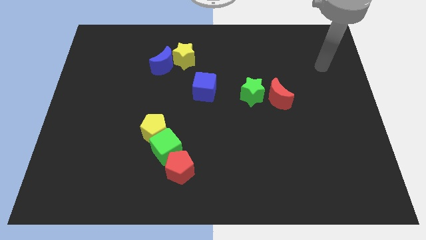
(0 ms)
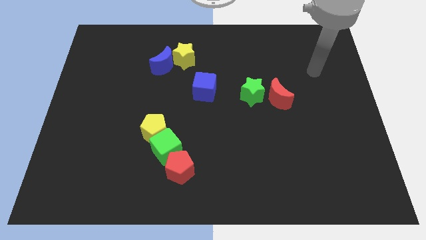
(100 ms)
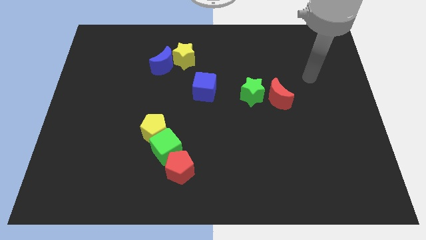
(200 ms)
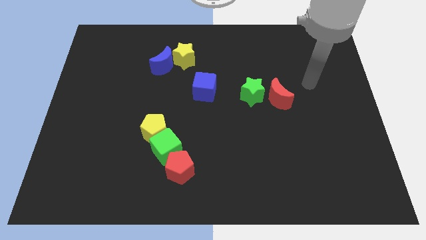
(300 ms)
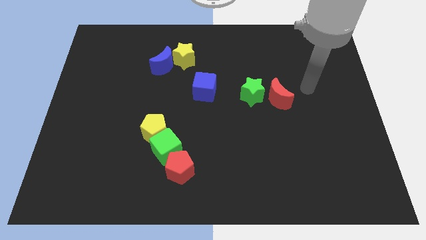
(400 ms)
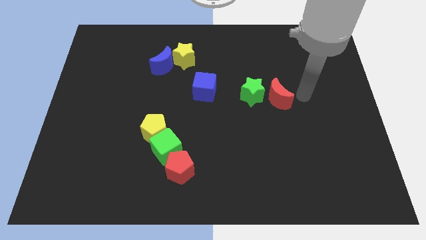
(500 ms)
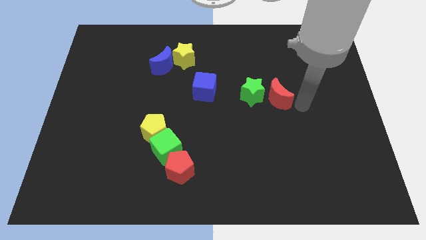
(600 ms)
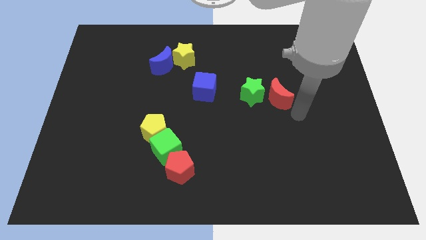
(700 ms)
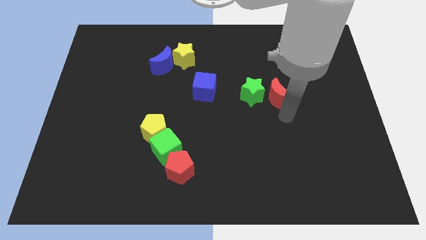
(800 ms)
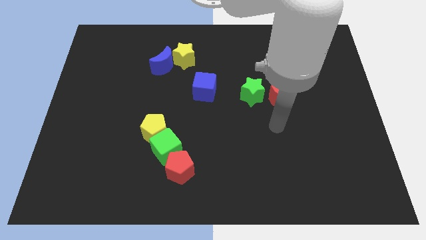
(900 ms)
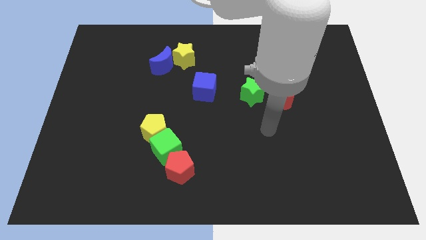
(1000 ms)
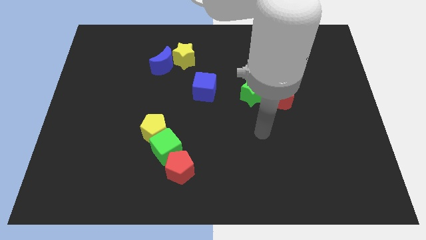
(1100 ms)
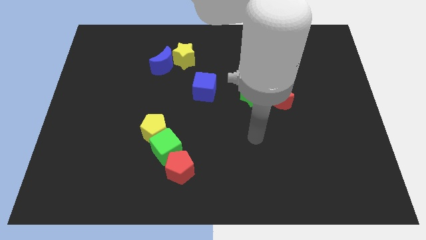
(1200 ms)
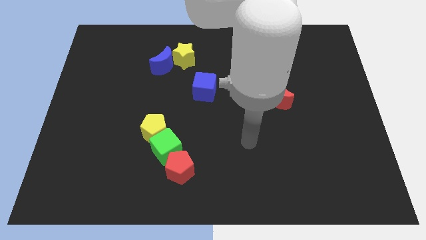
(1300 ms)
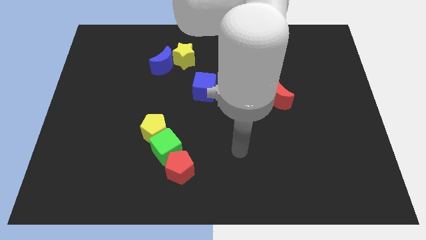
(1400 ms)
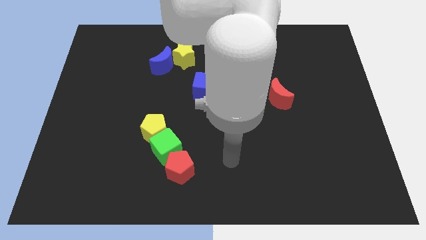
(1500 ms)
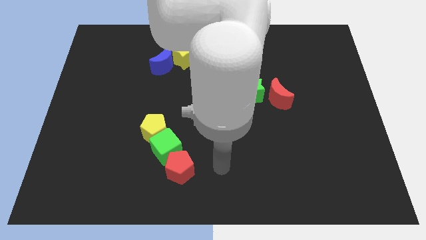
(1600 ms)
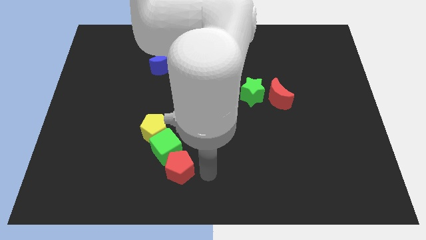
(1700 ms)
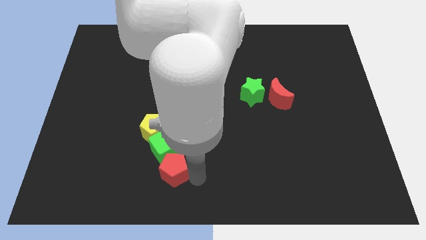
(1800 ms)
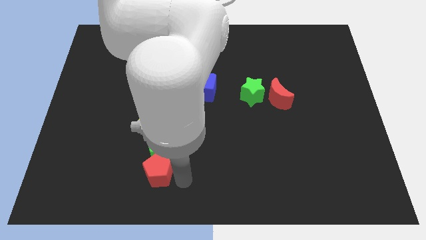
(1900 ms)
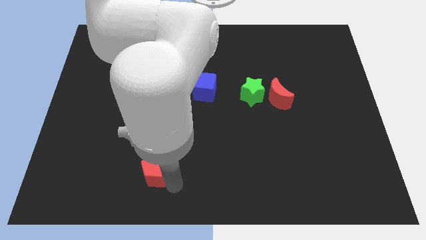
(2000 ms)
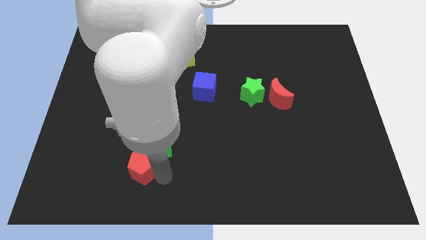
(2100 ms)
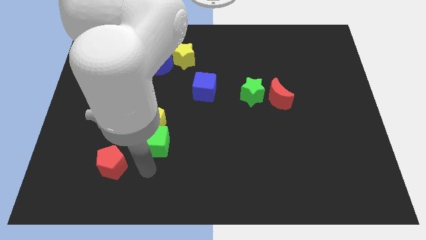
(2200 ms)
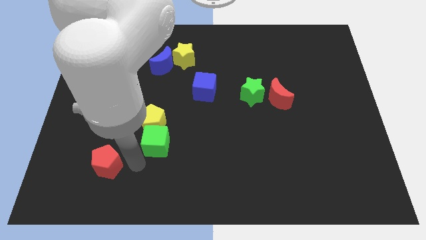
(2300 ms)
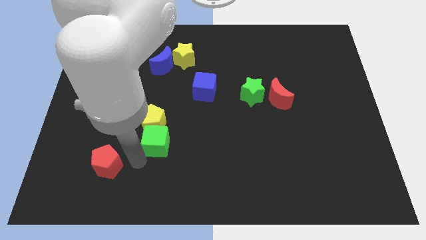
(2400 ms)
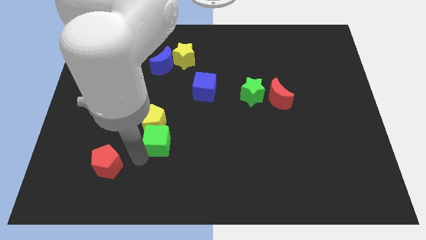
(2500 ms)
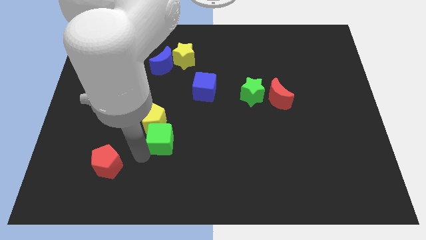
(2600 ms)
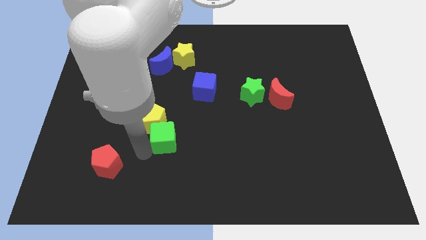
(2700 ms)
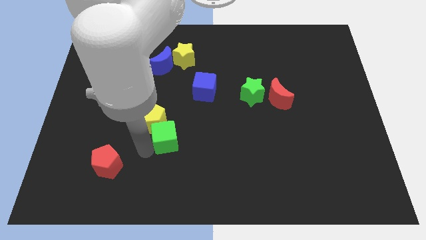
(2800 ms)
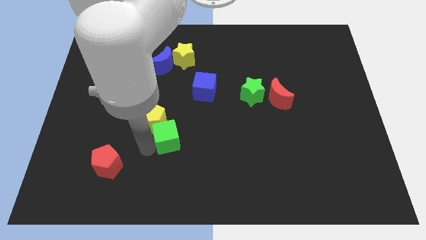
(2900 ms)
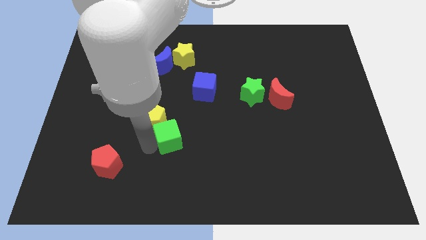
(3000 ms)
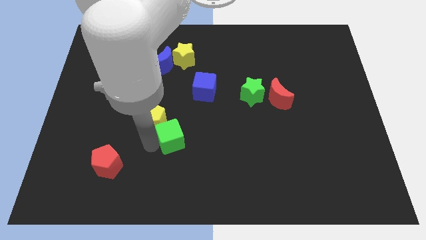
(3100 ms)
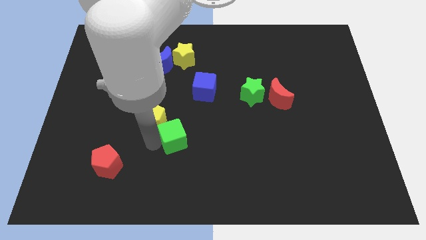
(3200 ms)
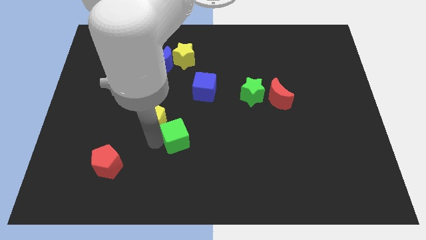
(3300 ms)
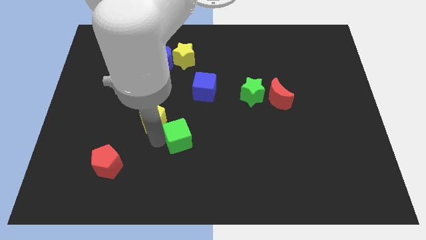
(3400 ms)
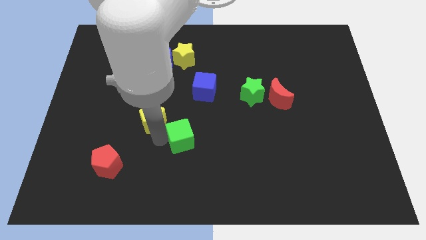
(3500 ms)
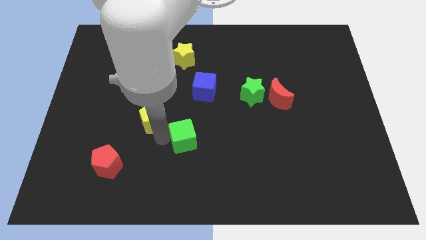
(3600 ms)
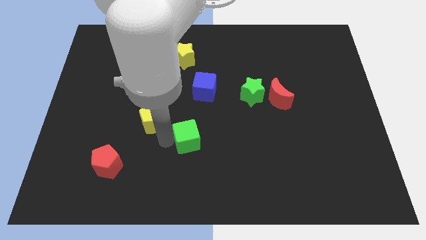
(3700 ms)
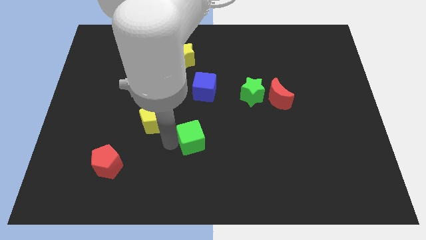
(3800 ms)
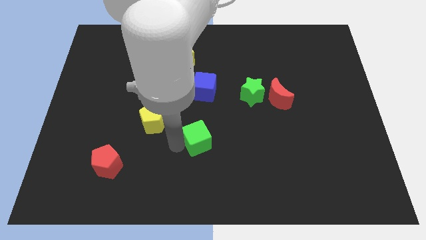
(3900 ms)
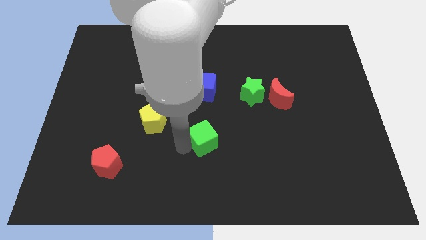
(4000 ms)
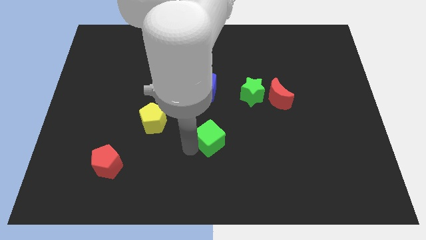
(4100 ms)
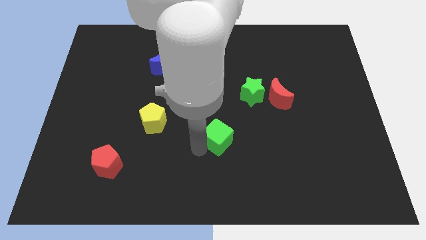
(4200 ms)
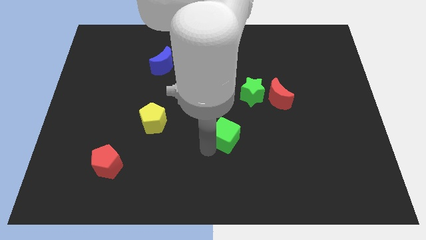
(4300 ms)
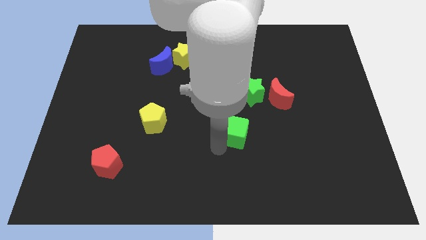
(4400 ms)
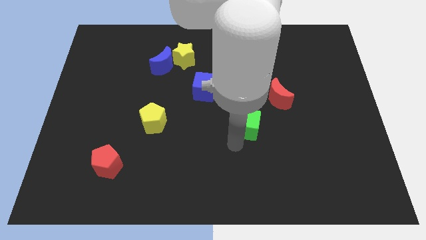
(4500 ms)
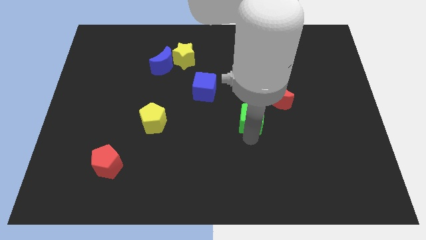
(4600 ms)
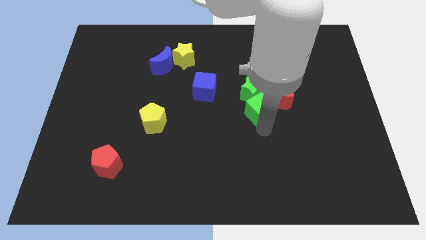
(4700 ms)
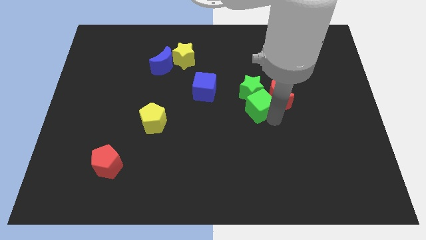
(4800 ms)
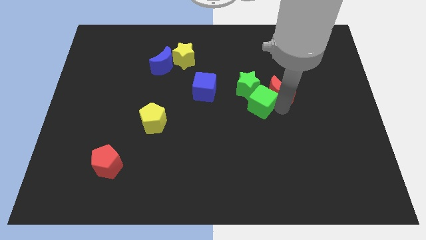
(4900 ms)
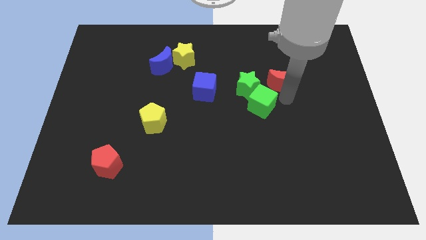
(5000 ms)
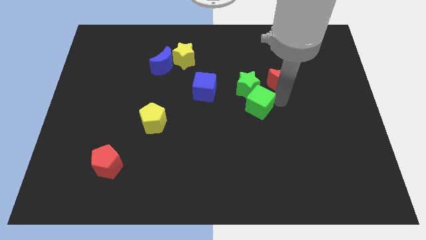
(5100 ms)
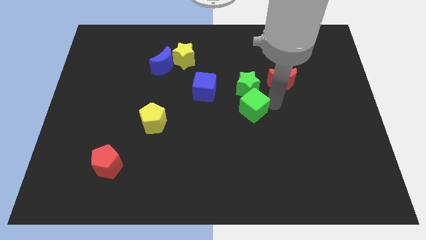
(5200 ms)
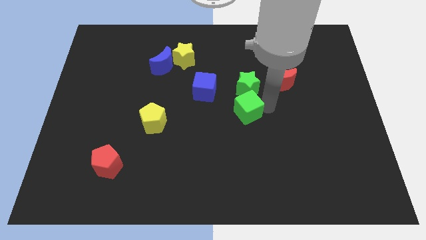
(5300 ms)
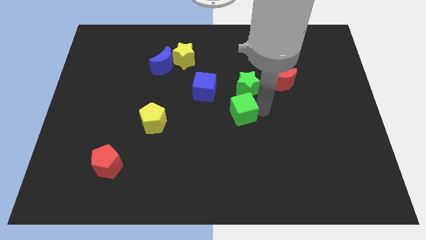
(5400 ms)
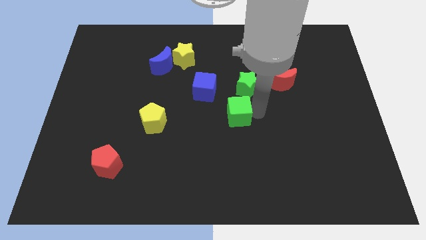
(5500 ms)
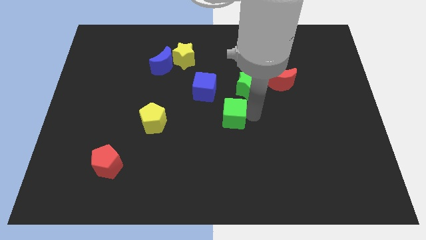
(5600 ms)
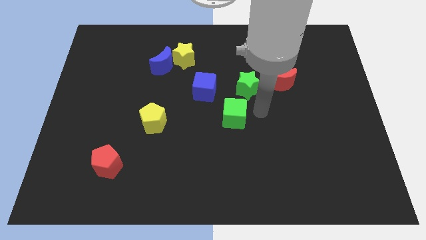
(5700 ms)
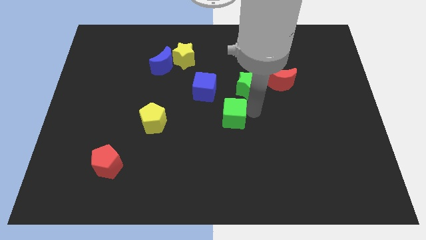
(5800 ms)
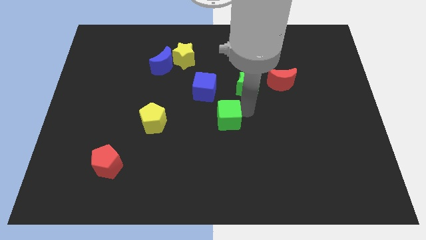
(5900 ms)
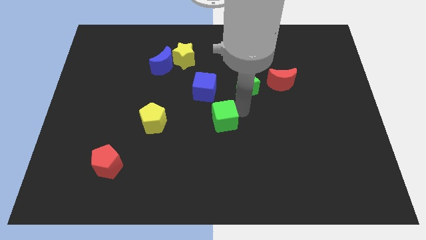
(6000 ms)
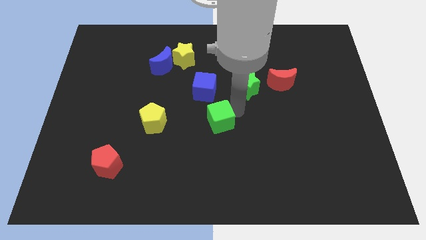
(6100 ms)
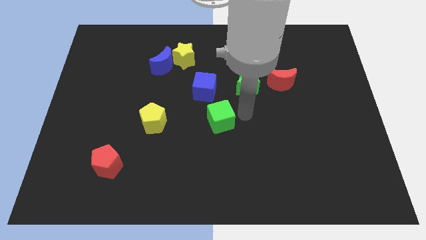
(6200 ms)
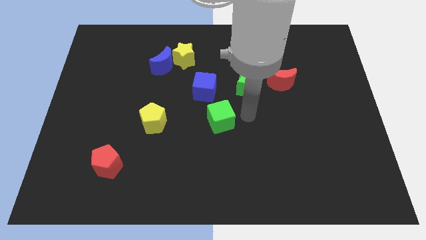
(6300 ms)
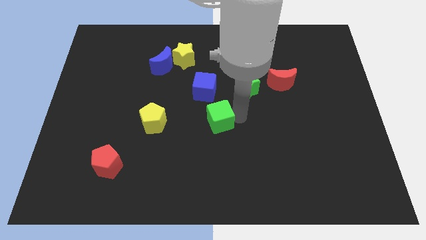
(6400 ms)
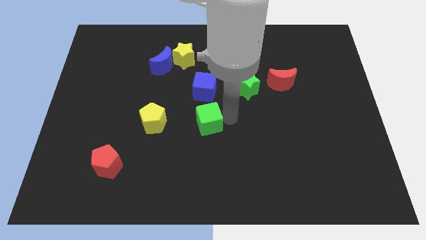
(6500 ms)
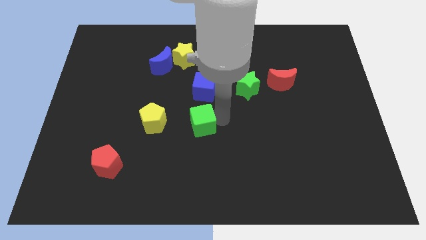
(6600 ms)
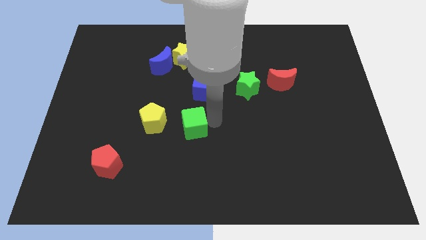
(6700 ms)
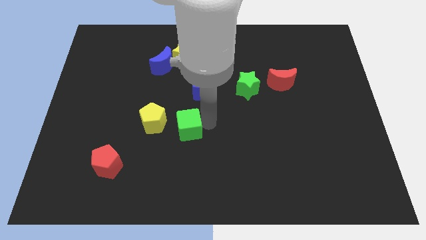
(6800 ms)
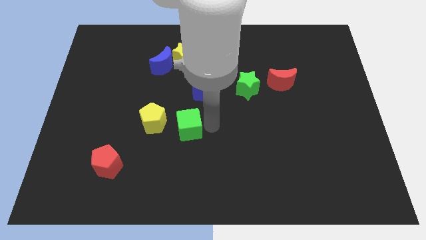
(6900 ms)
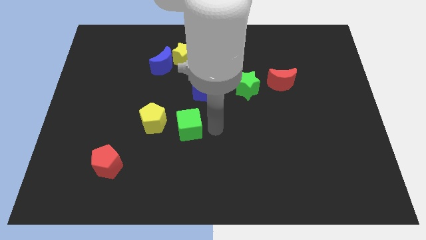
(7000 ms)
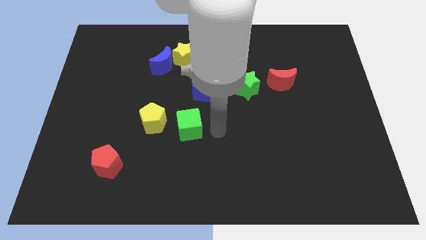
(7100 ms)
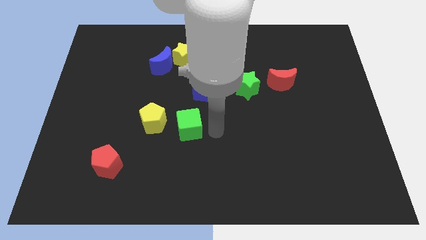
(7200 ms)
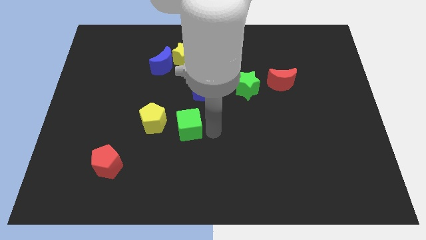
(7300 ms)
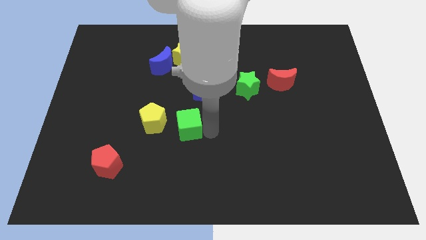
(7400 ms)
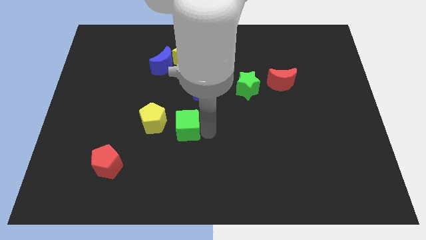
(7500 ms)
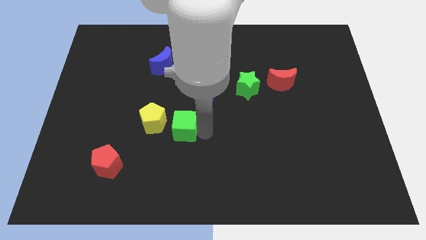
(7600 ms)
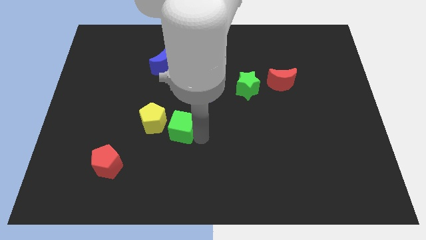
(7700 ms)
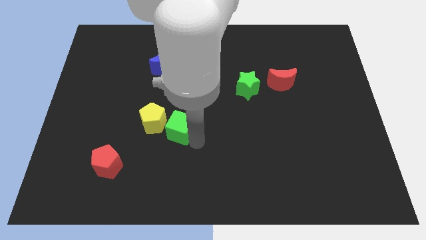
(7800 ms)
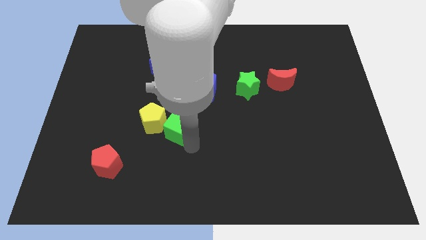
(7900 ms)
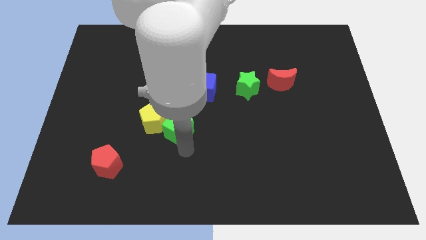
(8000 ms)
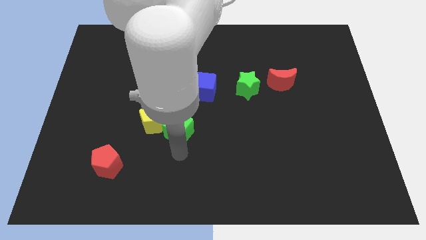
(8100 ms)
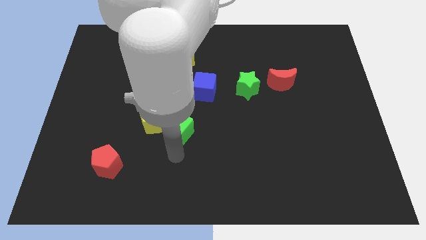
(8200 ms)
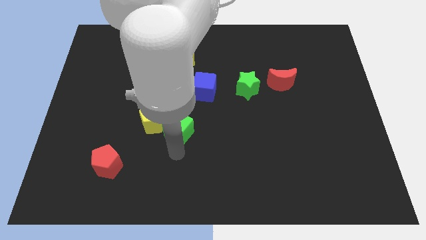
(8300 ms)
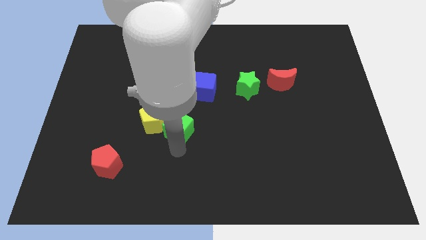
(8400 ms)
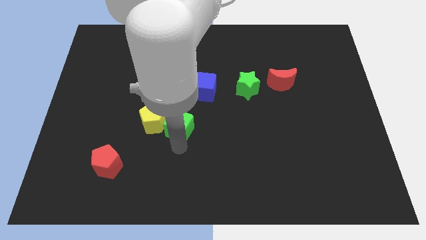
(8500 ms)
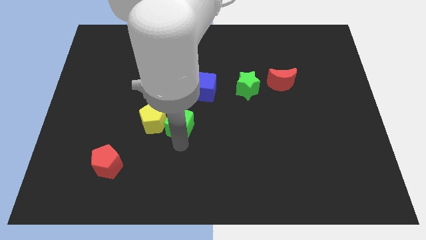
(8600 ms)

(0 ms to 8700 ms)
slide the green cube diagonally down and to the left of the blue cube
